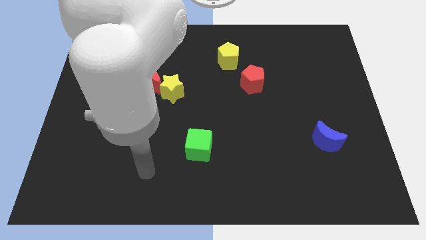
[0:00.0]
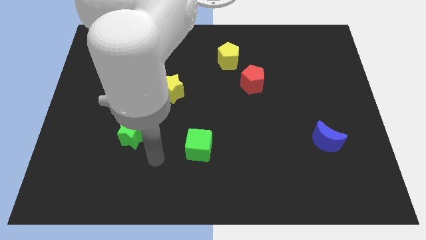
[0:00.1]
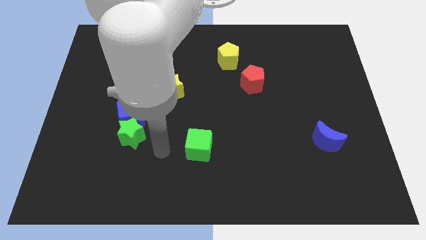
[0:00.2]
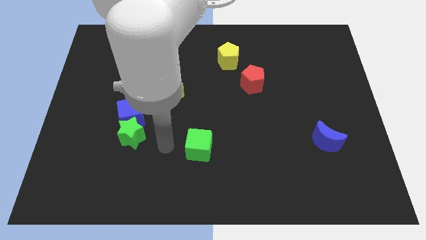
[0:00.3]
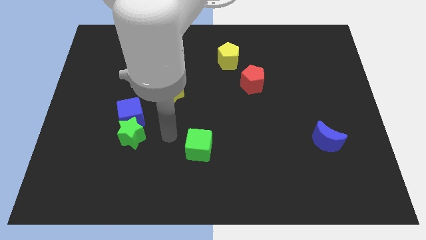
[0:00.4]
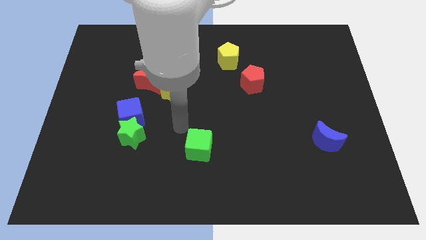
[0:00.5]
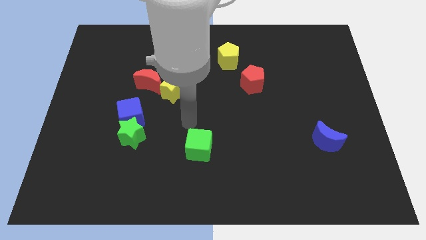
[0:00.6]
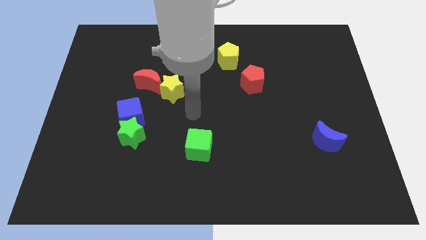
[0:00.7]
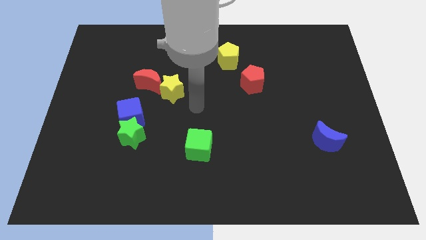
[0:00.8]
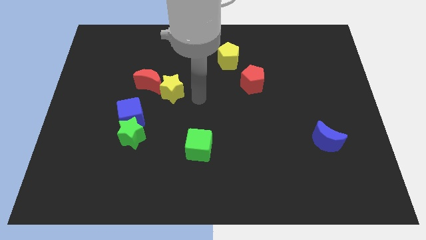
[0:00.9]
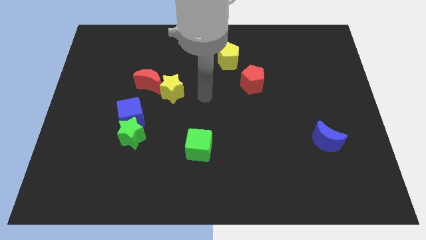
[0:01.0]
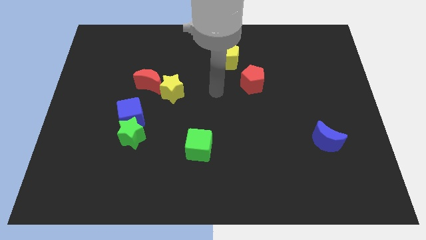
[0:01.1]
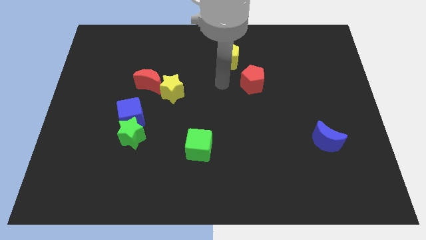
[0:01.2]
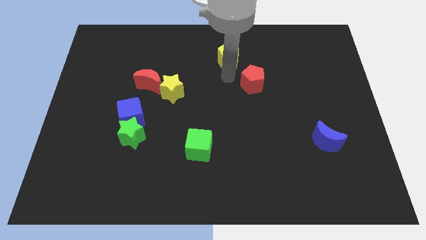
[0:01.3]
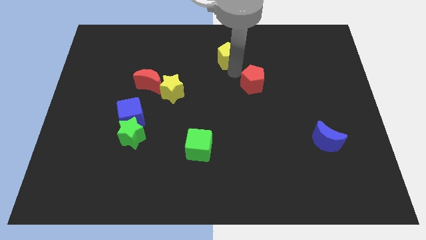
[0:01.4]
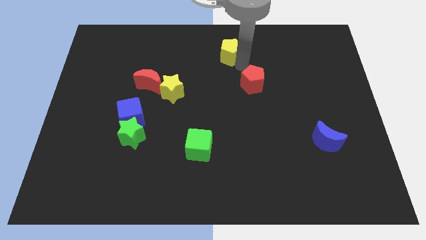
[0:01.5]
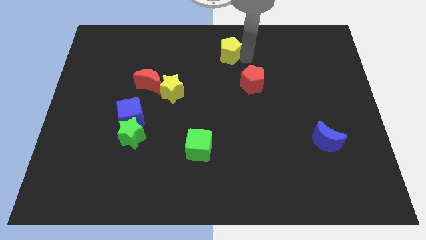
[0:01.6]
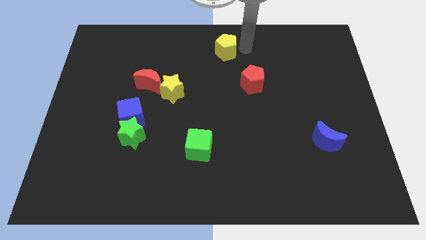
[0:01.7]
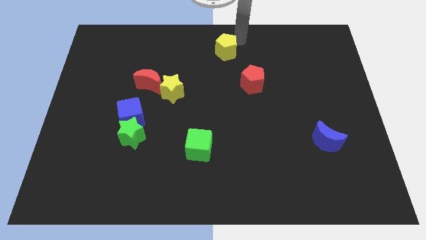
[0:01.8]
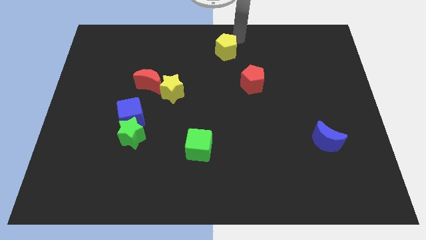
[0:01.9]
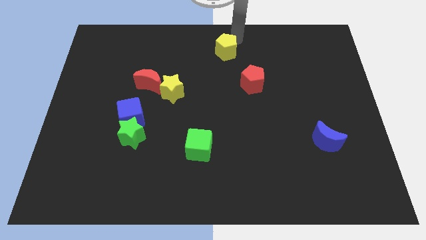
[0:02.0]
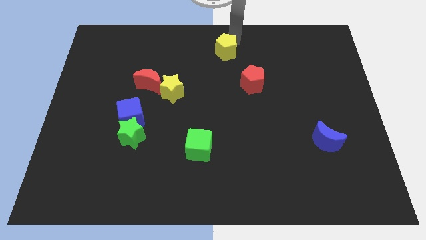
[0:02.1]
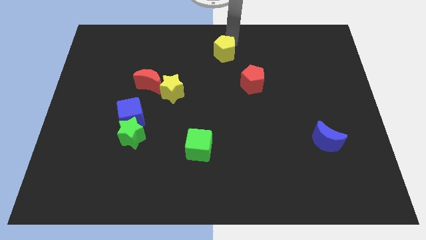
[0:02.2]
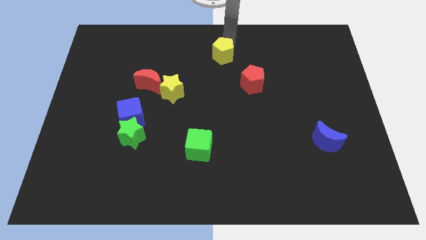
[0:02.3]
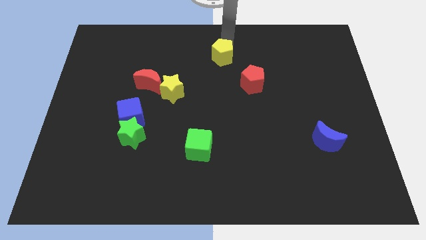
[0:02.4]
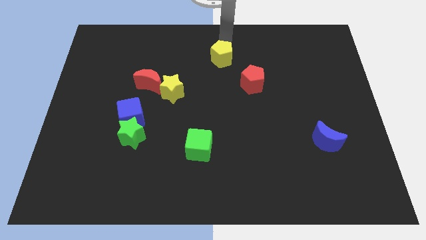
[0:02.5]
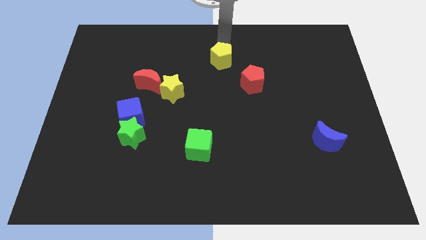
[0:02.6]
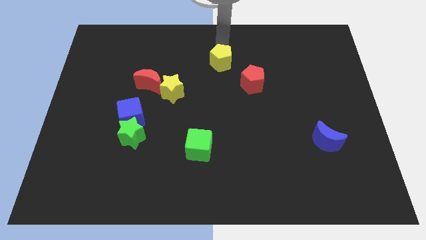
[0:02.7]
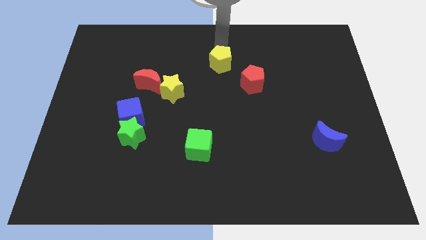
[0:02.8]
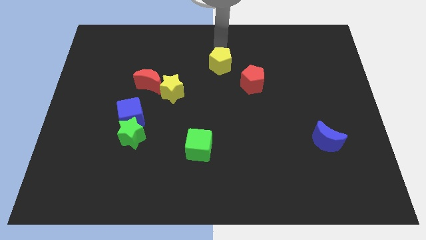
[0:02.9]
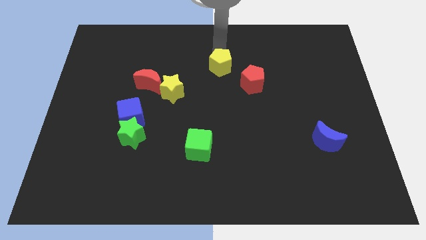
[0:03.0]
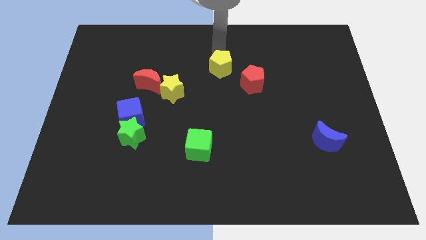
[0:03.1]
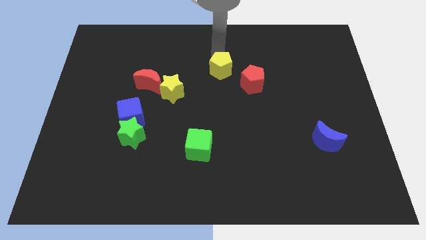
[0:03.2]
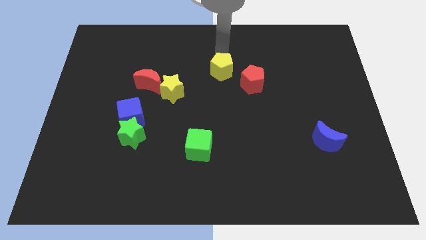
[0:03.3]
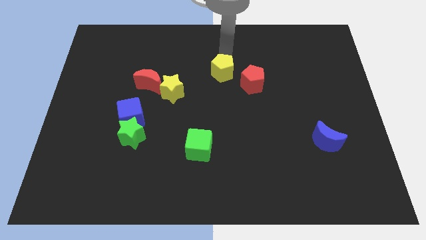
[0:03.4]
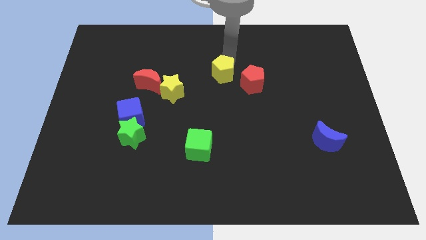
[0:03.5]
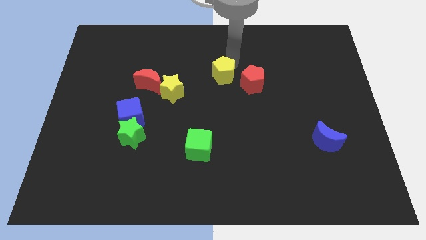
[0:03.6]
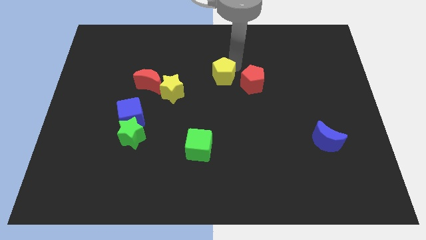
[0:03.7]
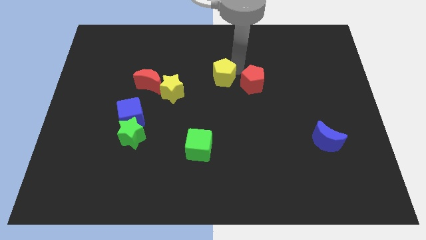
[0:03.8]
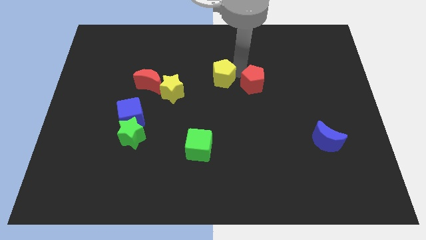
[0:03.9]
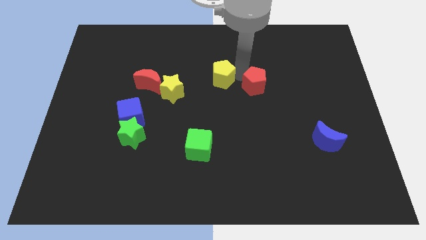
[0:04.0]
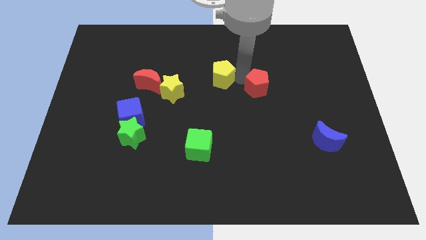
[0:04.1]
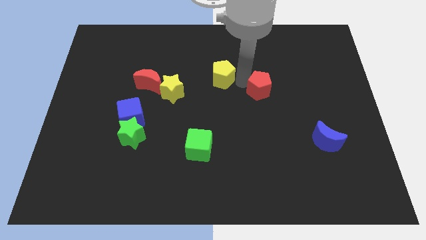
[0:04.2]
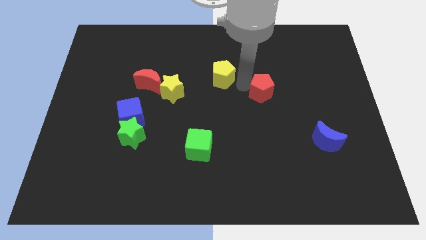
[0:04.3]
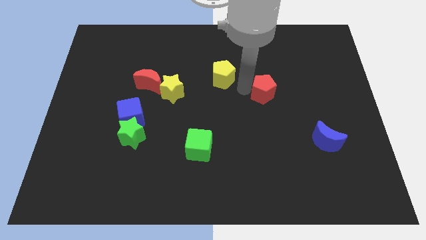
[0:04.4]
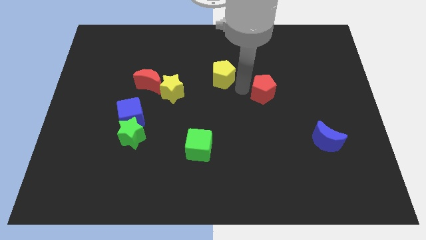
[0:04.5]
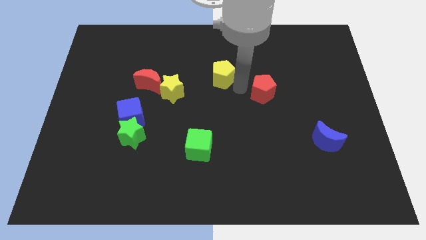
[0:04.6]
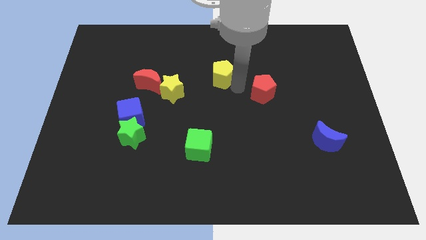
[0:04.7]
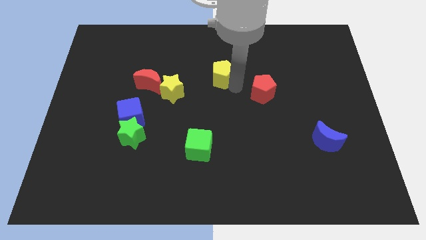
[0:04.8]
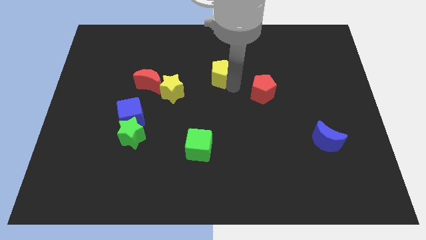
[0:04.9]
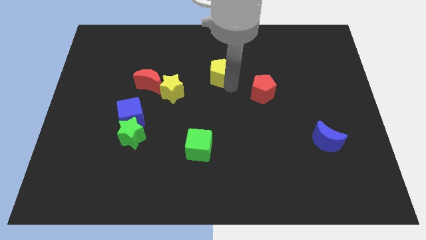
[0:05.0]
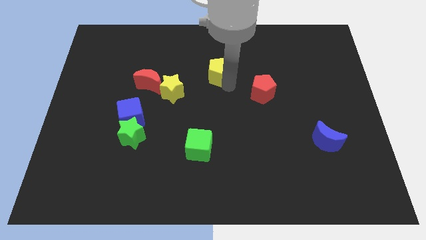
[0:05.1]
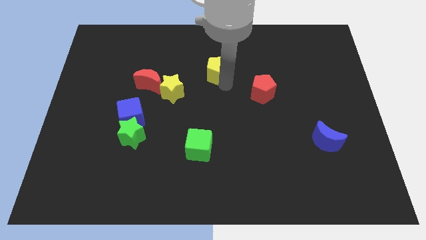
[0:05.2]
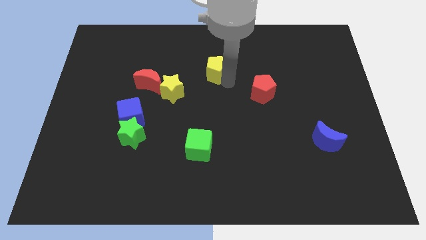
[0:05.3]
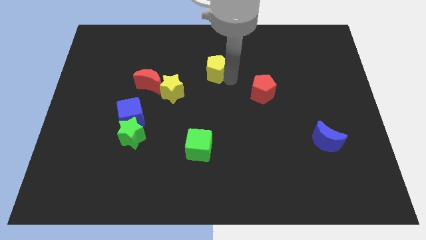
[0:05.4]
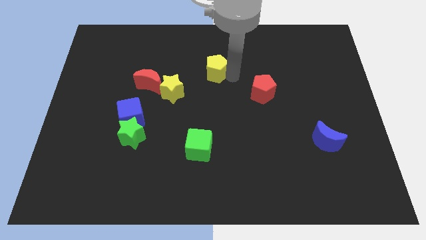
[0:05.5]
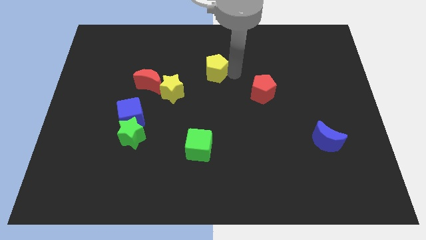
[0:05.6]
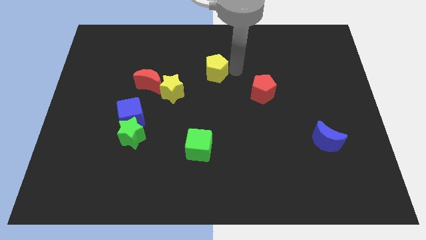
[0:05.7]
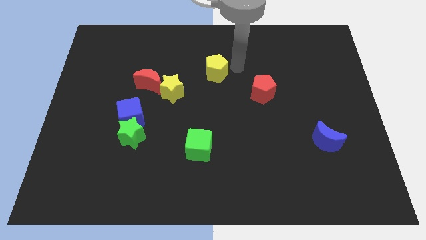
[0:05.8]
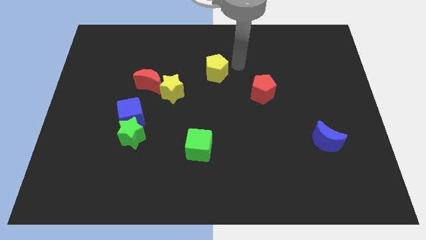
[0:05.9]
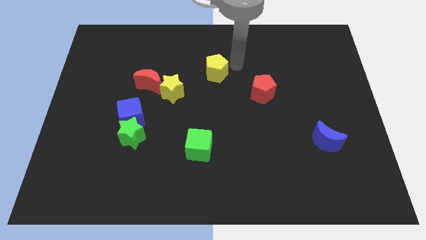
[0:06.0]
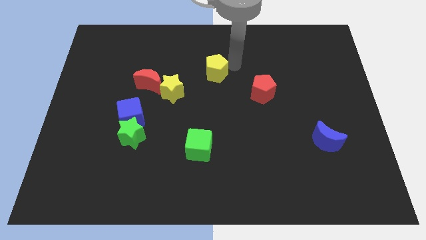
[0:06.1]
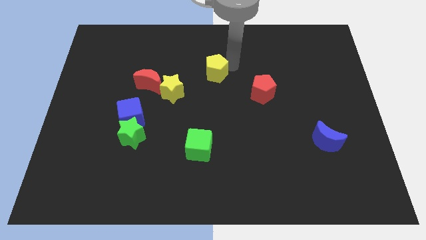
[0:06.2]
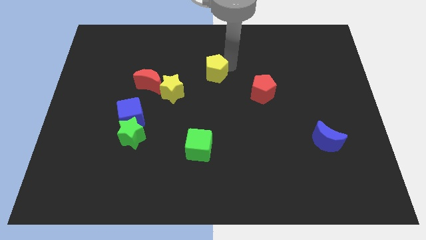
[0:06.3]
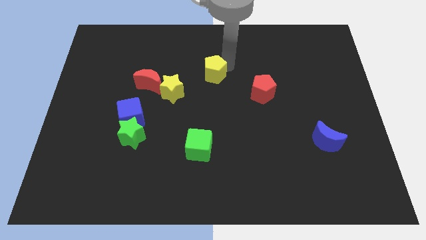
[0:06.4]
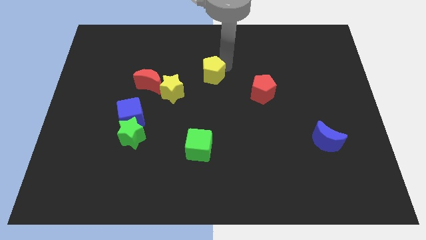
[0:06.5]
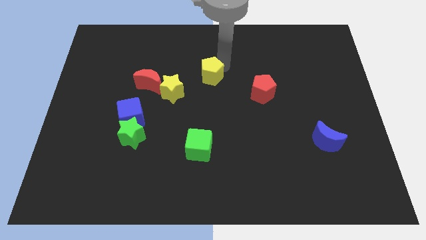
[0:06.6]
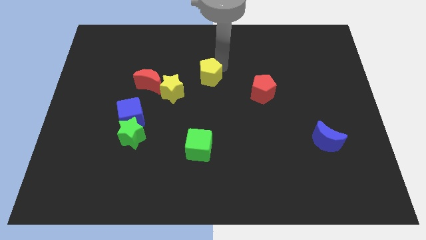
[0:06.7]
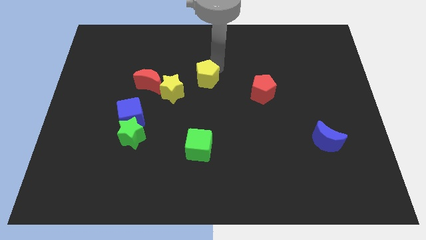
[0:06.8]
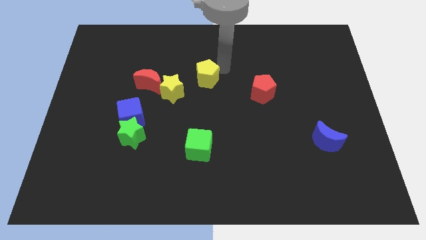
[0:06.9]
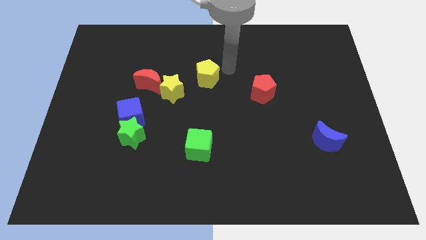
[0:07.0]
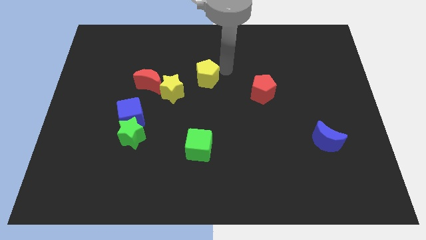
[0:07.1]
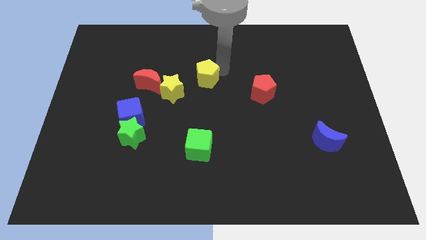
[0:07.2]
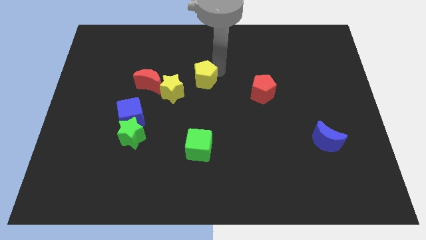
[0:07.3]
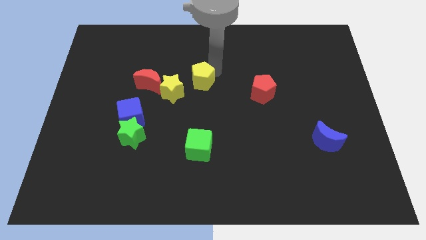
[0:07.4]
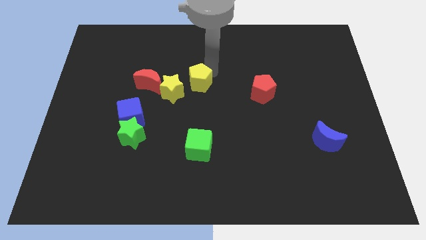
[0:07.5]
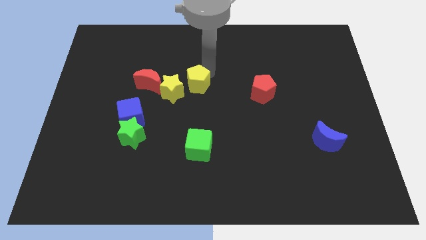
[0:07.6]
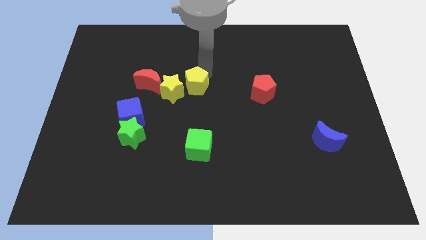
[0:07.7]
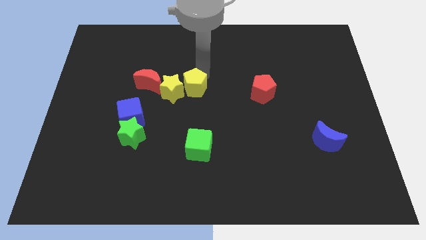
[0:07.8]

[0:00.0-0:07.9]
move the yellow pentagon towards the yellow star
